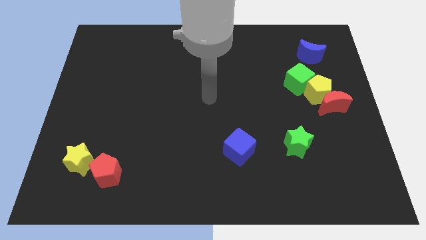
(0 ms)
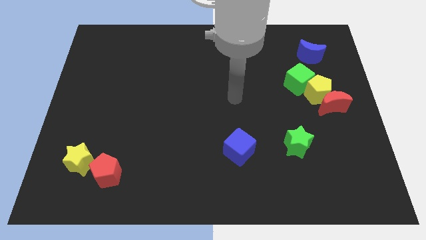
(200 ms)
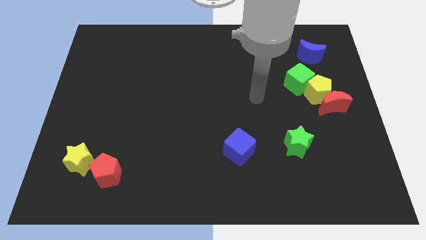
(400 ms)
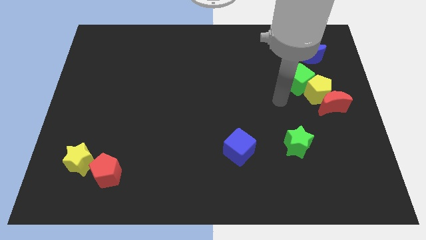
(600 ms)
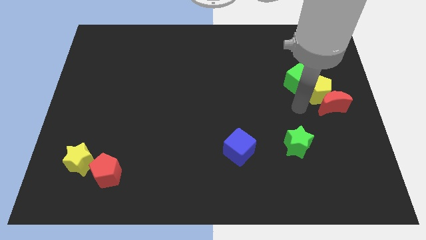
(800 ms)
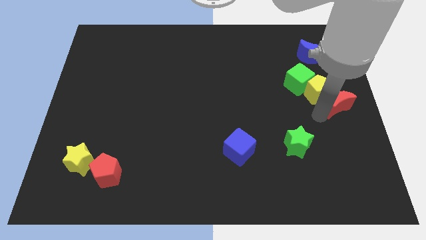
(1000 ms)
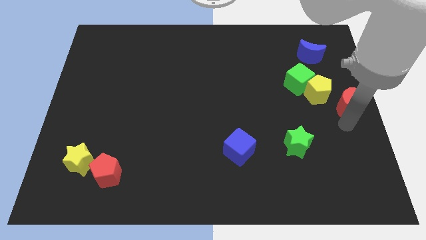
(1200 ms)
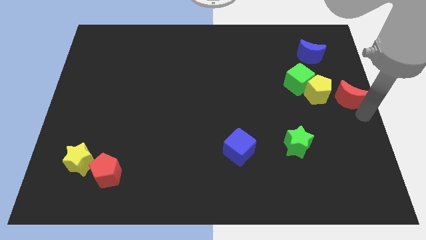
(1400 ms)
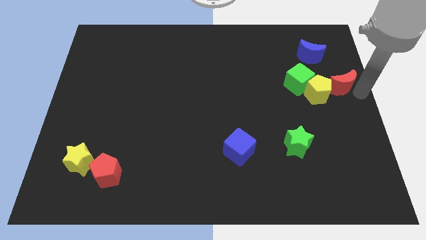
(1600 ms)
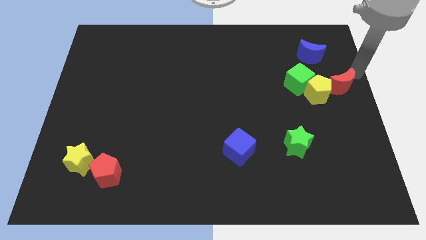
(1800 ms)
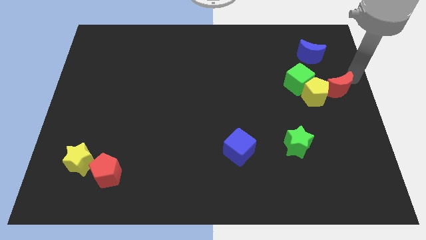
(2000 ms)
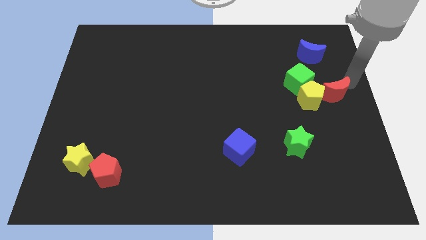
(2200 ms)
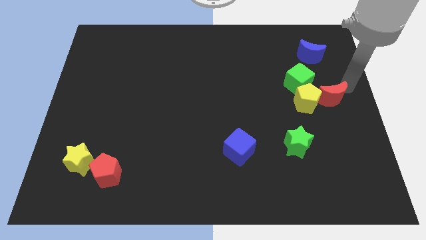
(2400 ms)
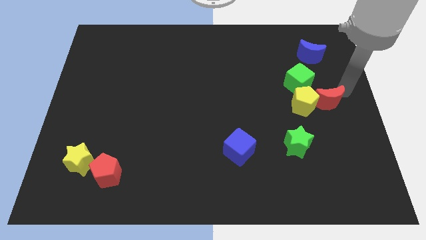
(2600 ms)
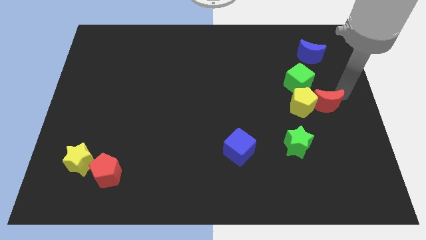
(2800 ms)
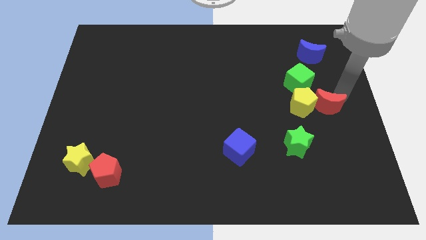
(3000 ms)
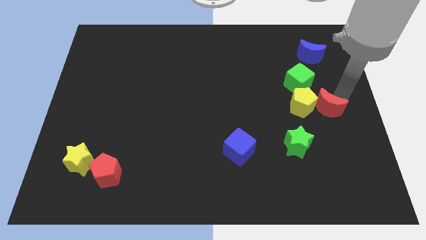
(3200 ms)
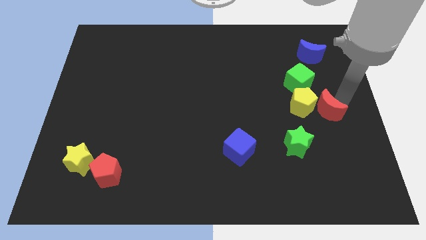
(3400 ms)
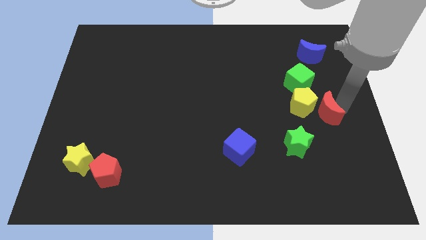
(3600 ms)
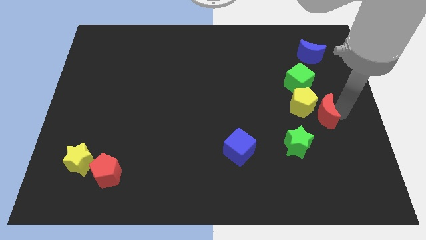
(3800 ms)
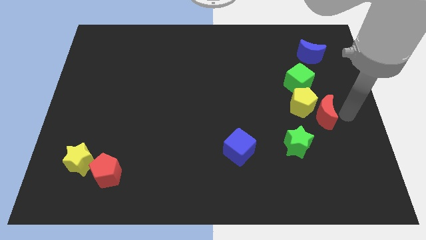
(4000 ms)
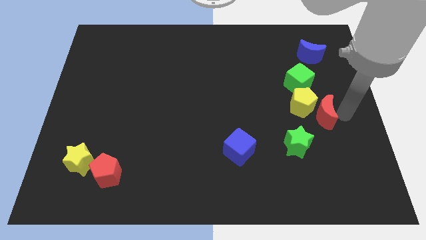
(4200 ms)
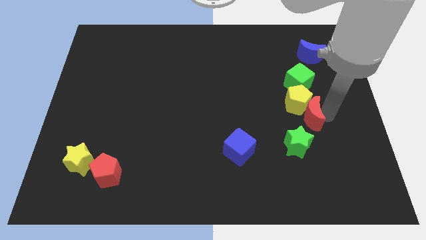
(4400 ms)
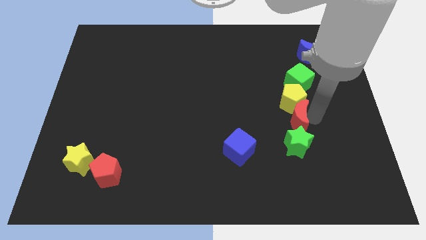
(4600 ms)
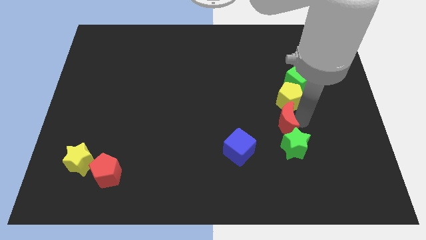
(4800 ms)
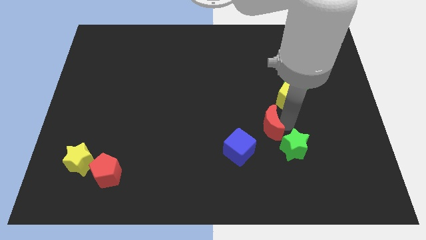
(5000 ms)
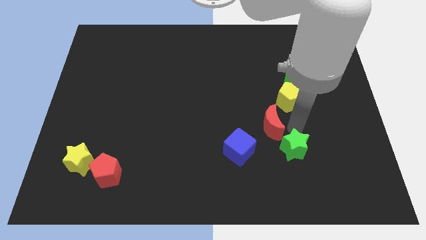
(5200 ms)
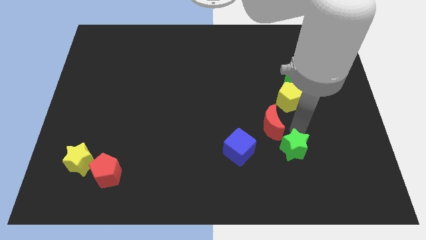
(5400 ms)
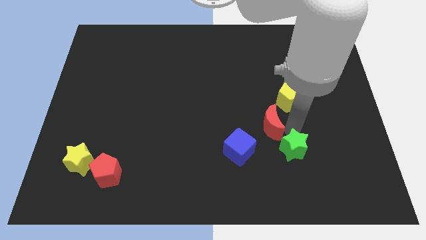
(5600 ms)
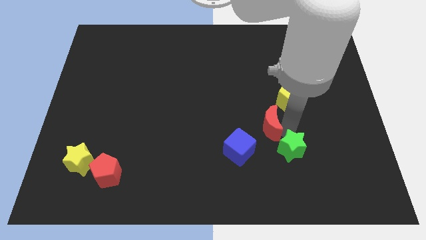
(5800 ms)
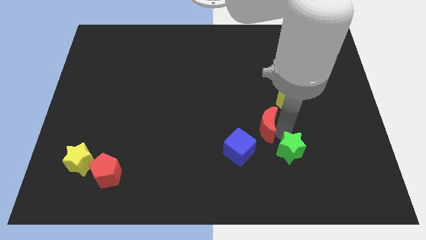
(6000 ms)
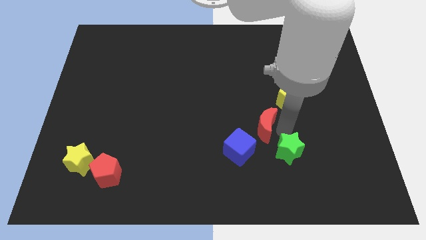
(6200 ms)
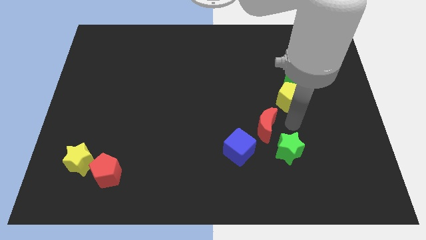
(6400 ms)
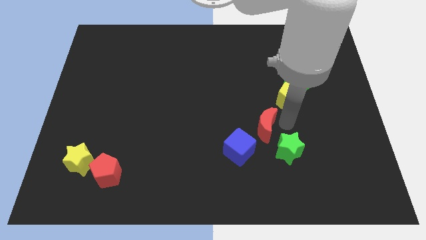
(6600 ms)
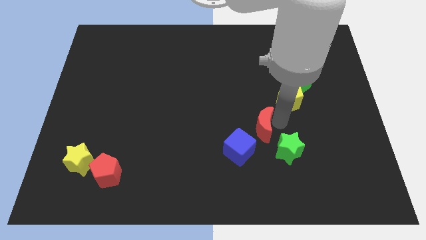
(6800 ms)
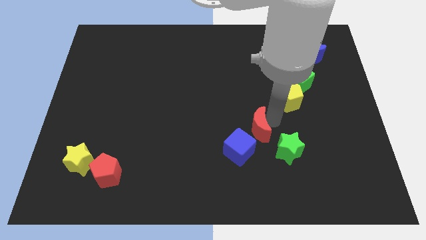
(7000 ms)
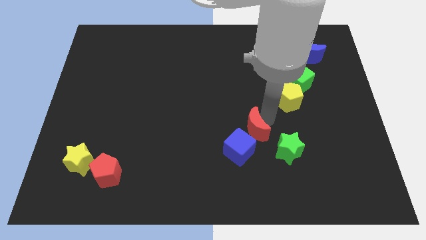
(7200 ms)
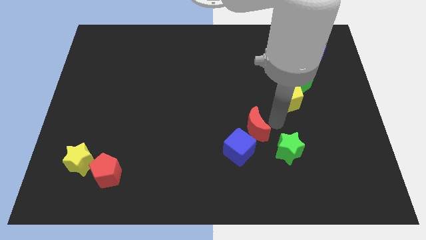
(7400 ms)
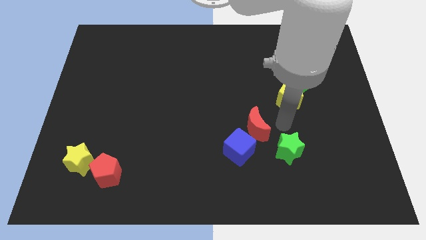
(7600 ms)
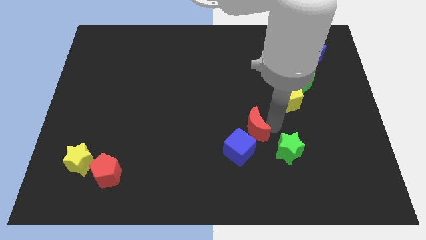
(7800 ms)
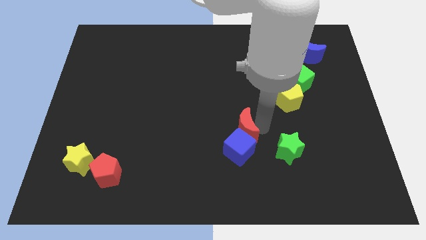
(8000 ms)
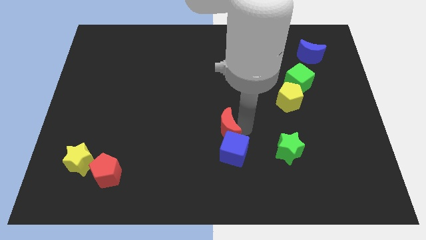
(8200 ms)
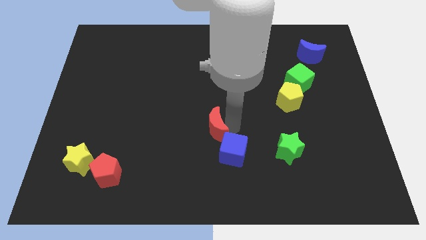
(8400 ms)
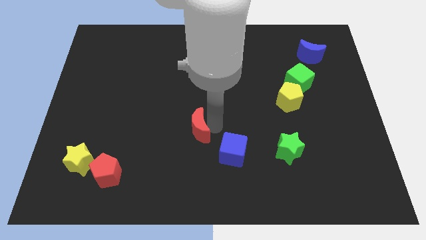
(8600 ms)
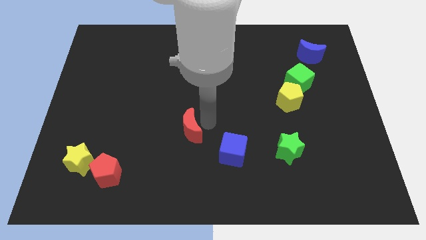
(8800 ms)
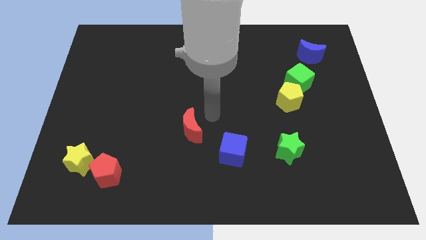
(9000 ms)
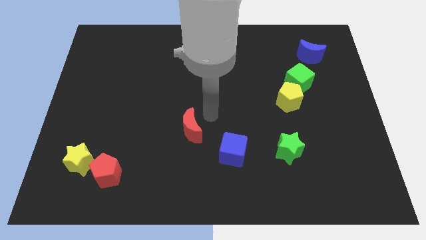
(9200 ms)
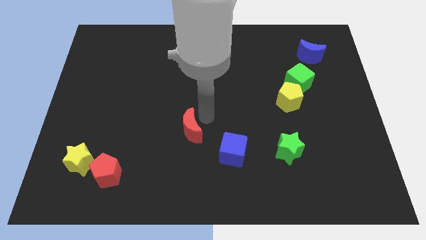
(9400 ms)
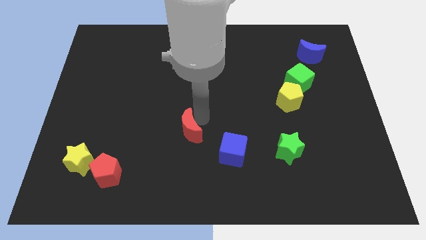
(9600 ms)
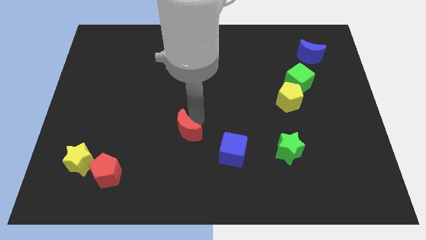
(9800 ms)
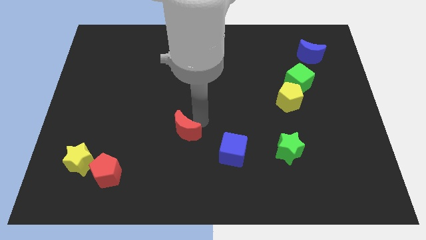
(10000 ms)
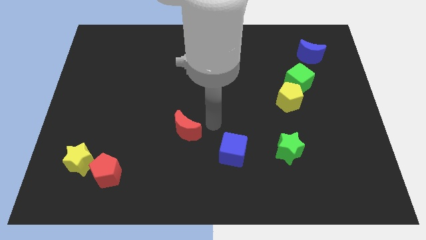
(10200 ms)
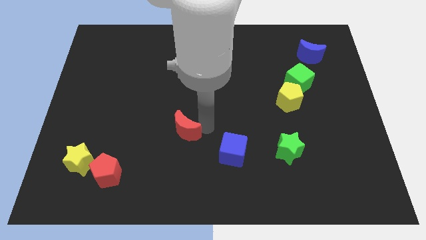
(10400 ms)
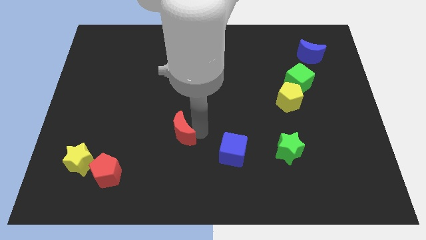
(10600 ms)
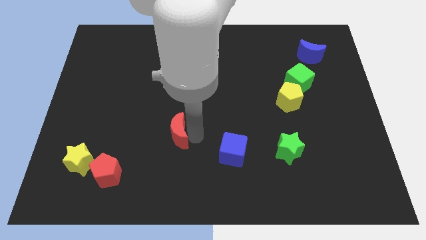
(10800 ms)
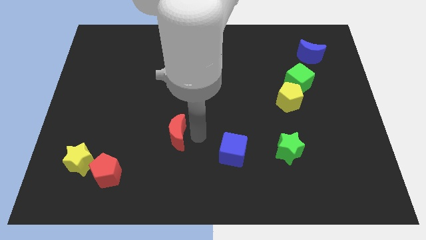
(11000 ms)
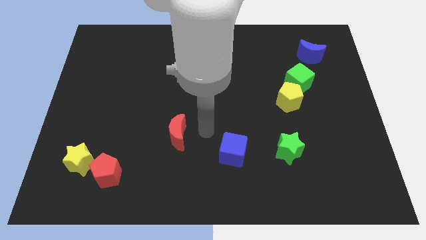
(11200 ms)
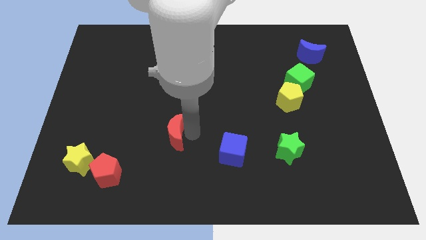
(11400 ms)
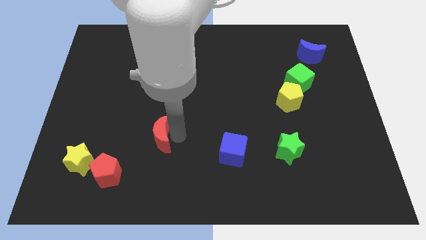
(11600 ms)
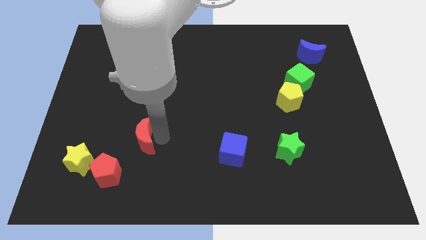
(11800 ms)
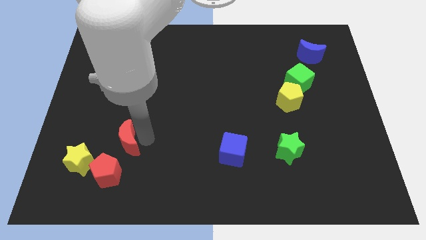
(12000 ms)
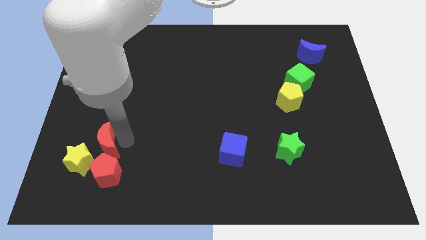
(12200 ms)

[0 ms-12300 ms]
push the red moon towards the yellow star

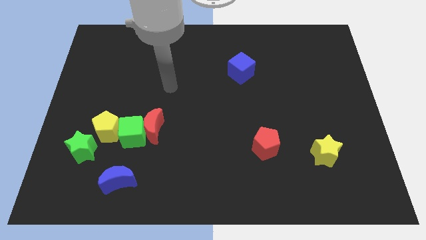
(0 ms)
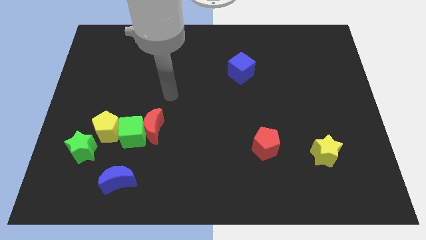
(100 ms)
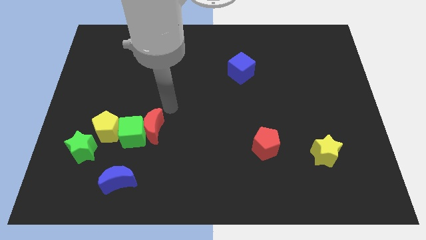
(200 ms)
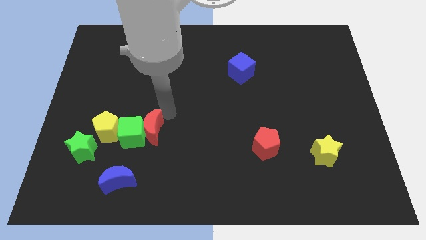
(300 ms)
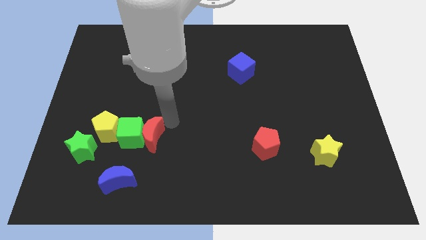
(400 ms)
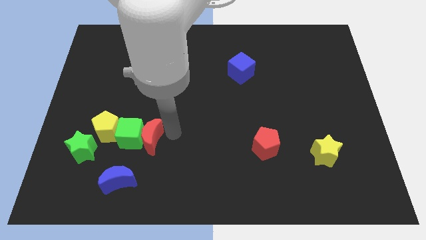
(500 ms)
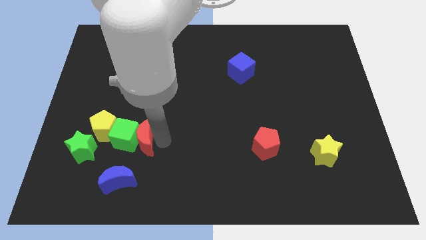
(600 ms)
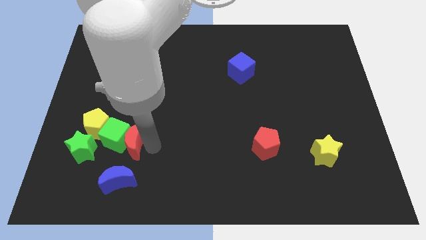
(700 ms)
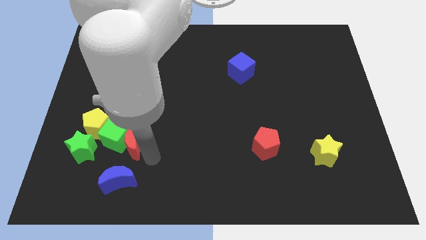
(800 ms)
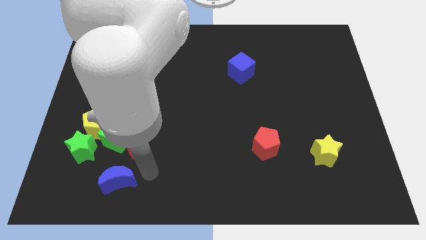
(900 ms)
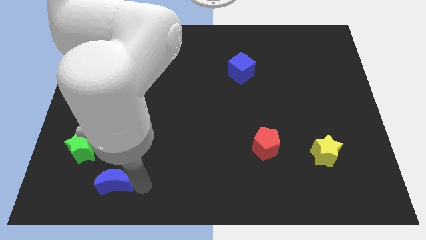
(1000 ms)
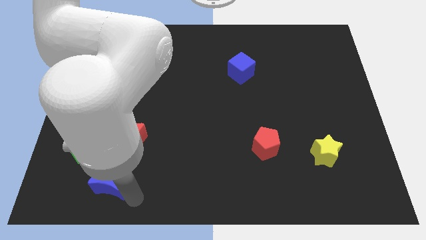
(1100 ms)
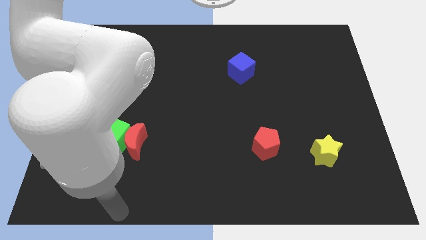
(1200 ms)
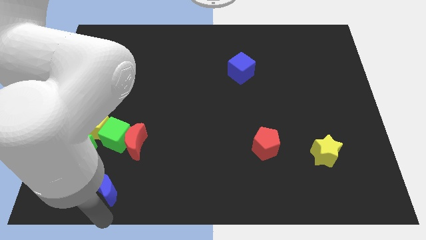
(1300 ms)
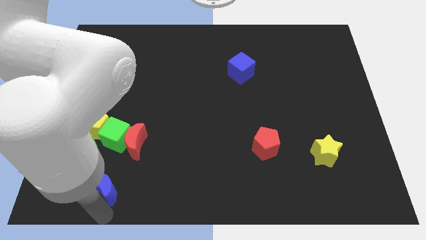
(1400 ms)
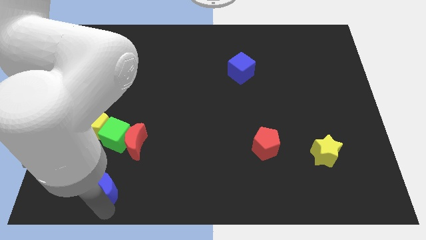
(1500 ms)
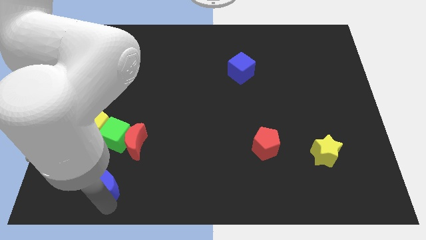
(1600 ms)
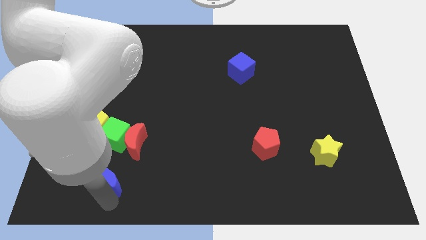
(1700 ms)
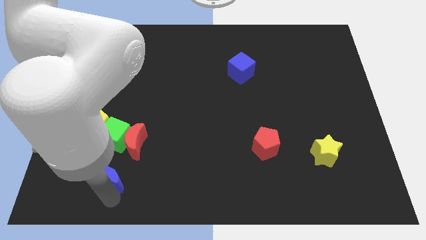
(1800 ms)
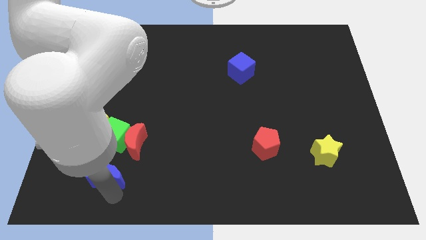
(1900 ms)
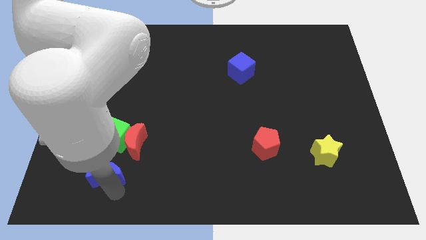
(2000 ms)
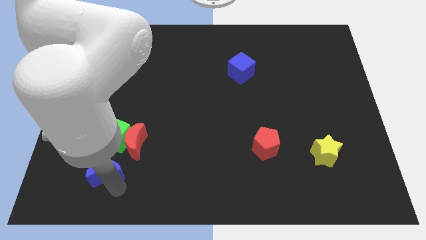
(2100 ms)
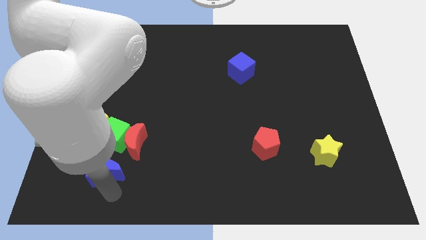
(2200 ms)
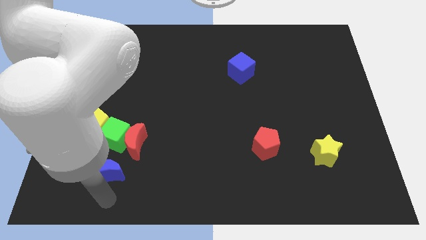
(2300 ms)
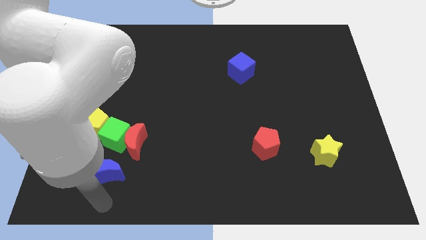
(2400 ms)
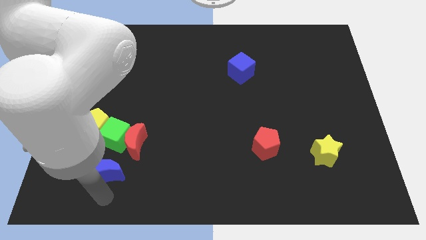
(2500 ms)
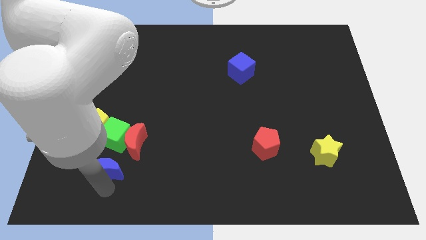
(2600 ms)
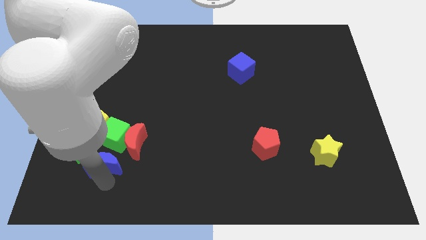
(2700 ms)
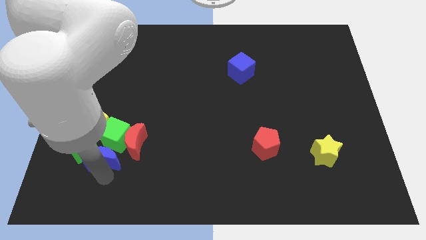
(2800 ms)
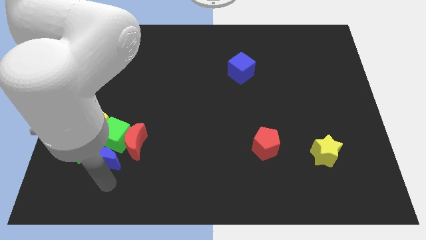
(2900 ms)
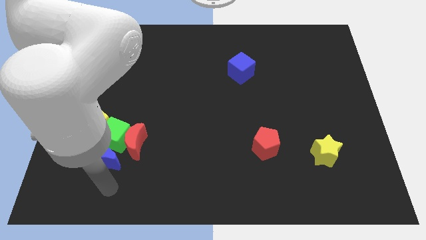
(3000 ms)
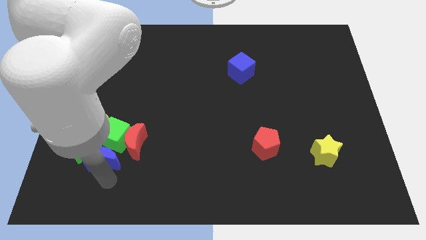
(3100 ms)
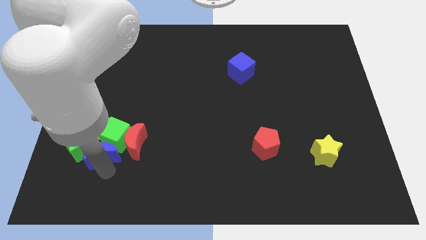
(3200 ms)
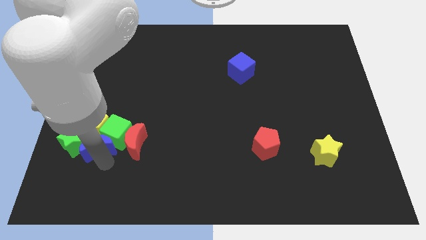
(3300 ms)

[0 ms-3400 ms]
put the blue moon to the yellow pentagon
